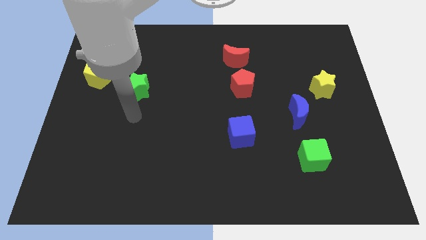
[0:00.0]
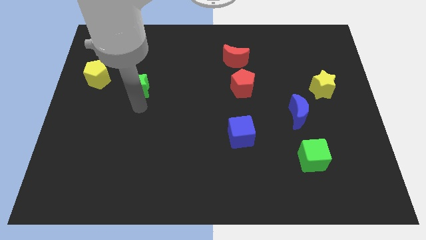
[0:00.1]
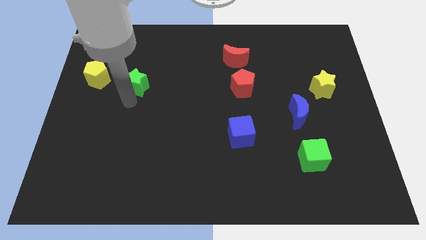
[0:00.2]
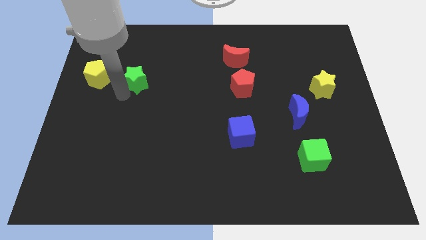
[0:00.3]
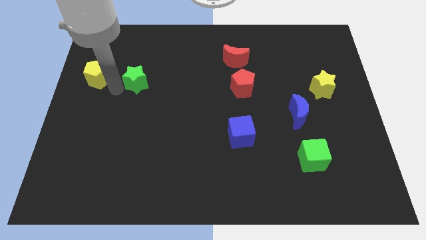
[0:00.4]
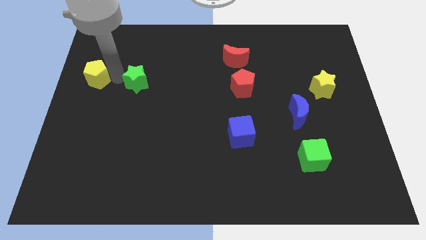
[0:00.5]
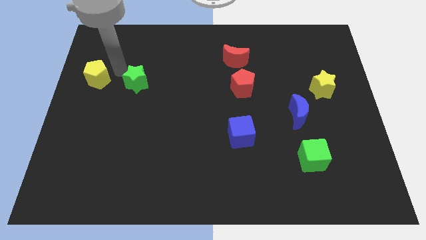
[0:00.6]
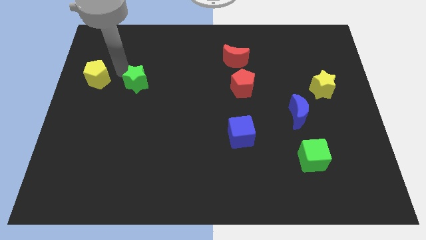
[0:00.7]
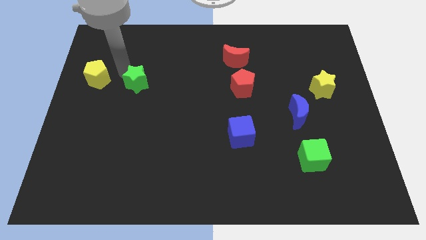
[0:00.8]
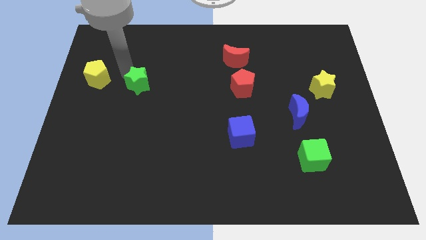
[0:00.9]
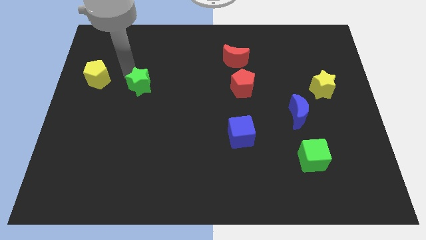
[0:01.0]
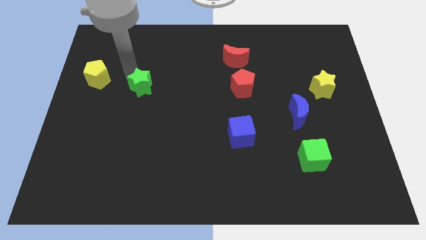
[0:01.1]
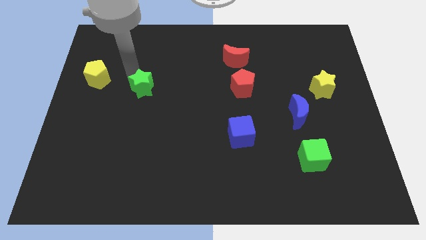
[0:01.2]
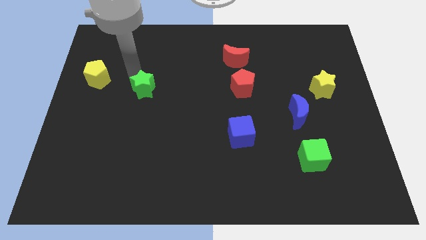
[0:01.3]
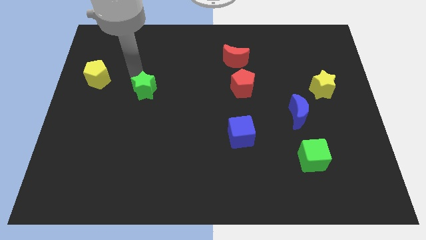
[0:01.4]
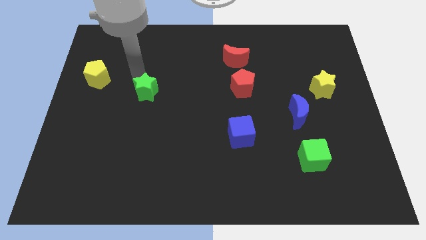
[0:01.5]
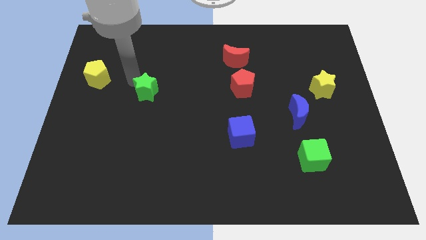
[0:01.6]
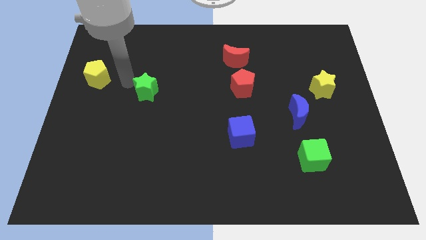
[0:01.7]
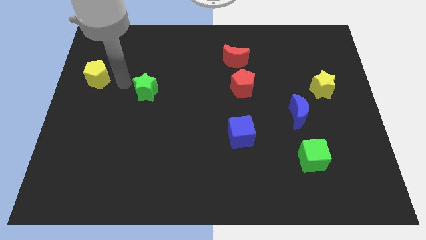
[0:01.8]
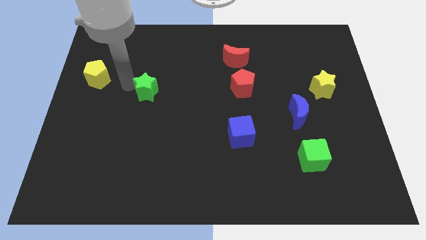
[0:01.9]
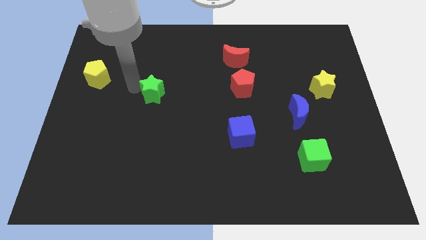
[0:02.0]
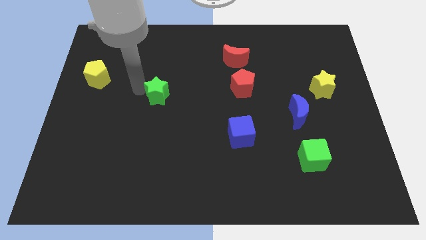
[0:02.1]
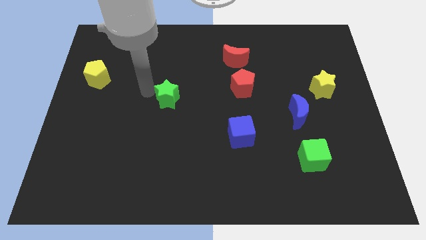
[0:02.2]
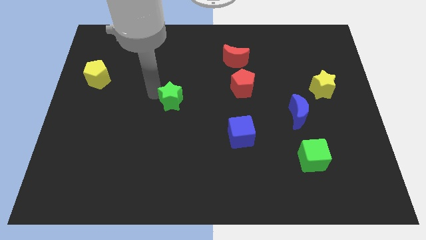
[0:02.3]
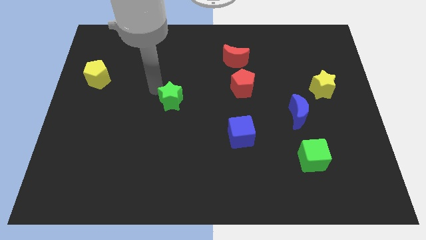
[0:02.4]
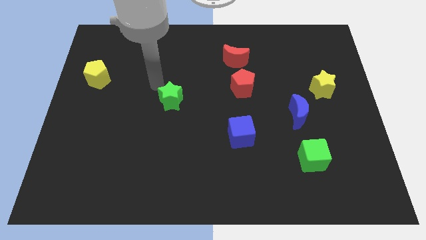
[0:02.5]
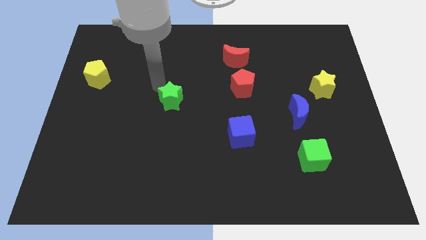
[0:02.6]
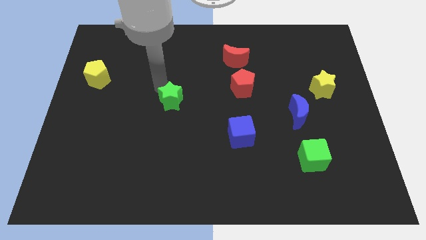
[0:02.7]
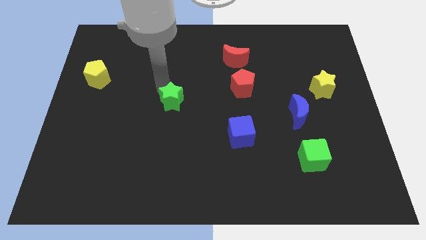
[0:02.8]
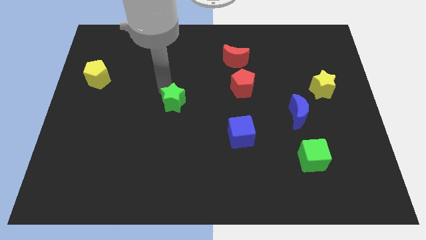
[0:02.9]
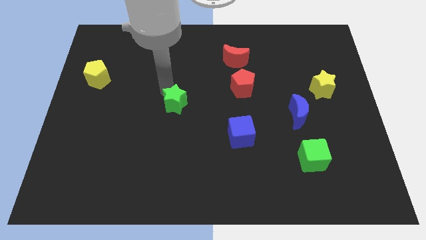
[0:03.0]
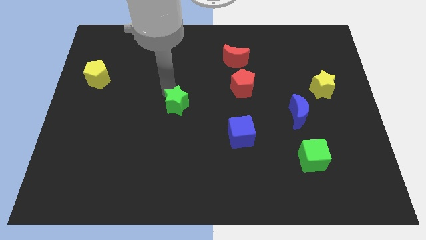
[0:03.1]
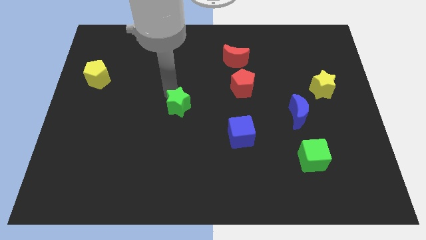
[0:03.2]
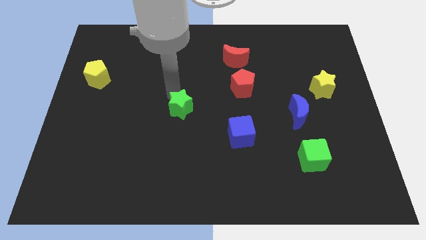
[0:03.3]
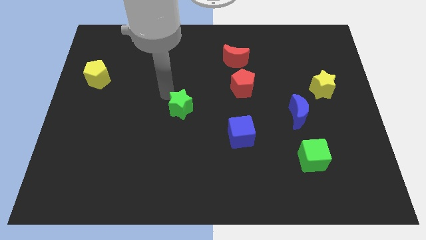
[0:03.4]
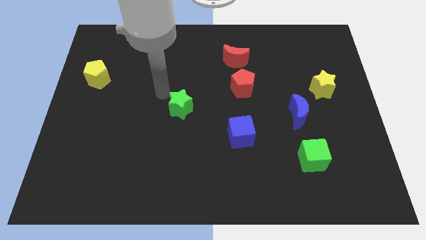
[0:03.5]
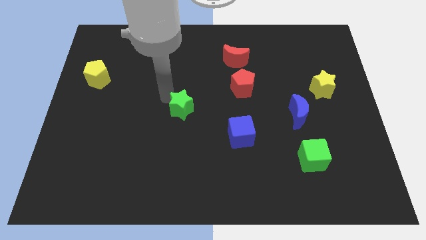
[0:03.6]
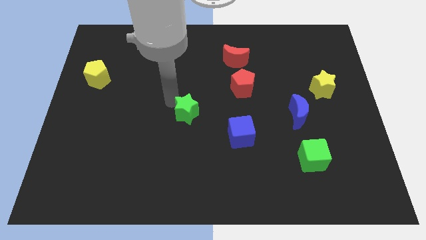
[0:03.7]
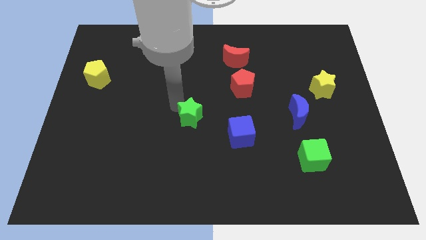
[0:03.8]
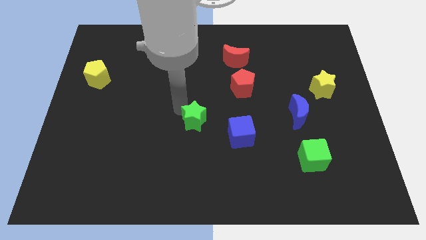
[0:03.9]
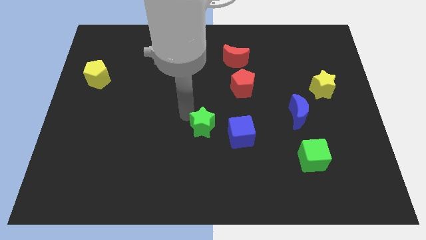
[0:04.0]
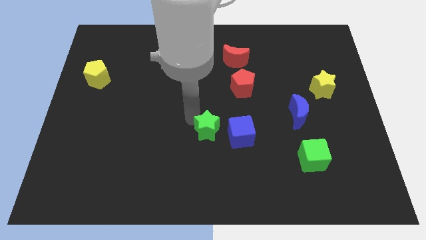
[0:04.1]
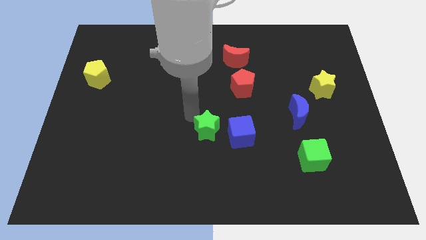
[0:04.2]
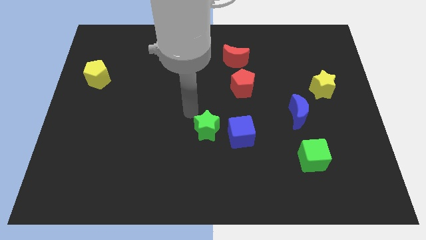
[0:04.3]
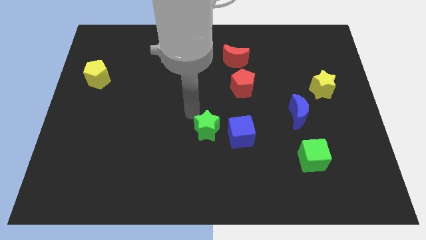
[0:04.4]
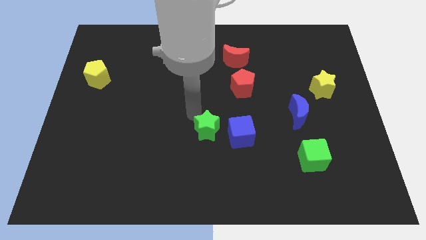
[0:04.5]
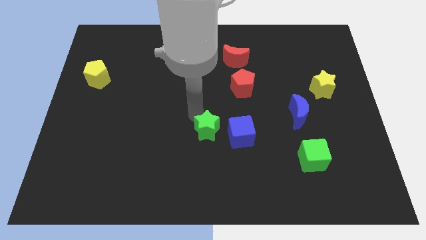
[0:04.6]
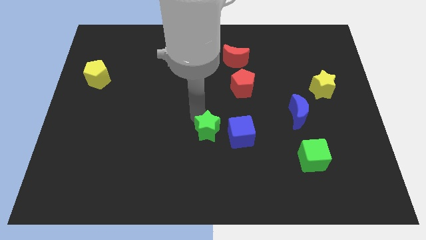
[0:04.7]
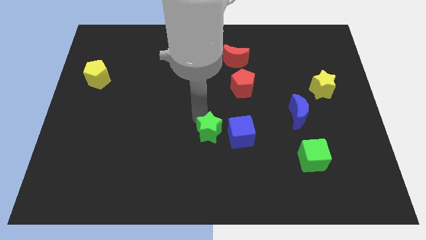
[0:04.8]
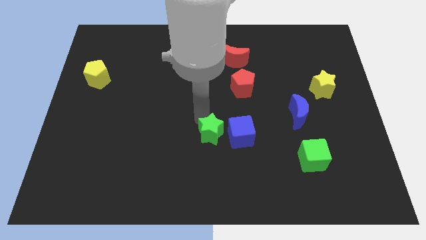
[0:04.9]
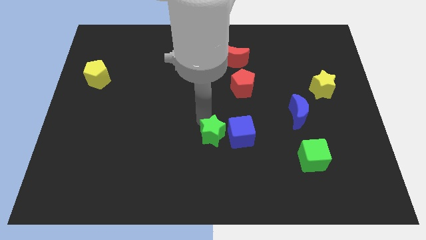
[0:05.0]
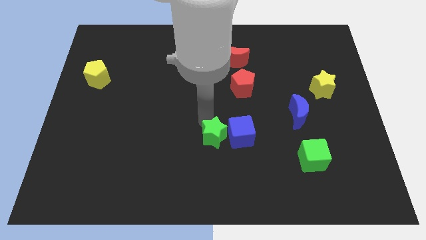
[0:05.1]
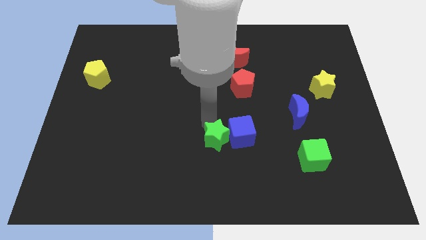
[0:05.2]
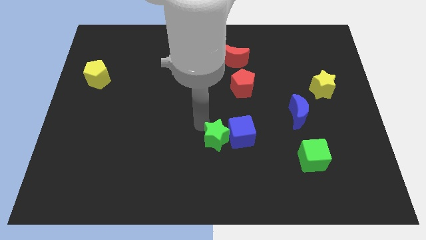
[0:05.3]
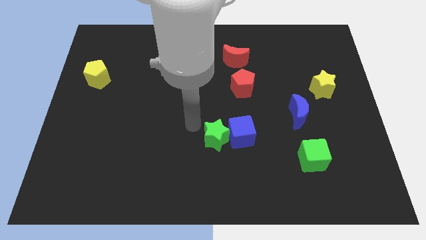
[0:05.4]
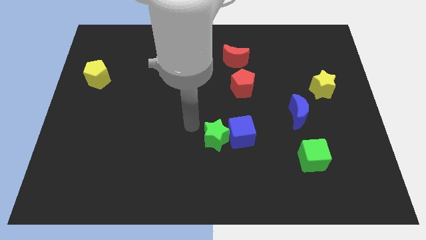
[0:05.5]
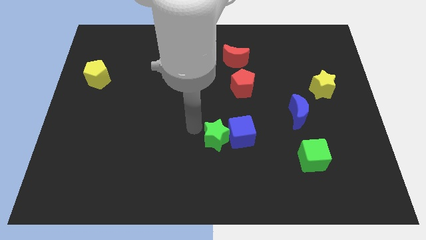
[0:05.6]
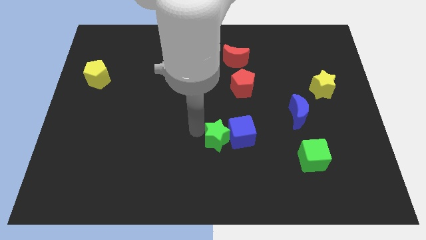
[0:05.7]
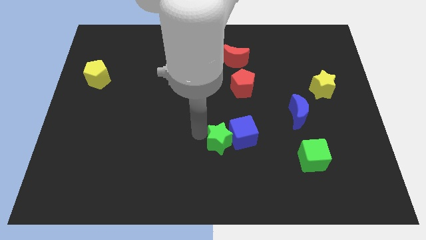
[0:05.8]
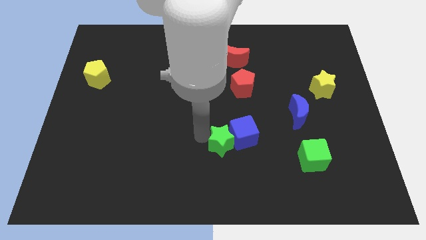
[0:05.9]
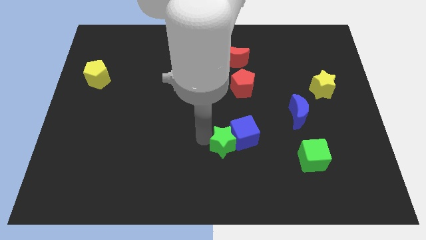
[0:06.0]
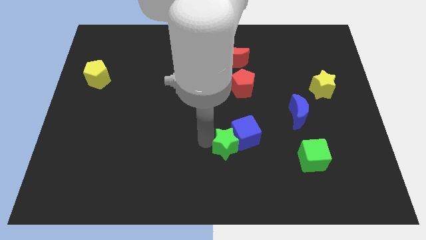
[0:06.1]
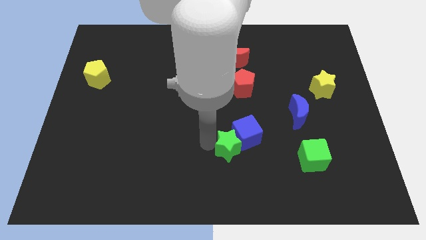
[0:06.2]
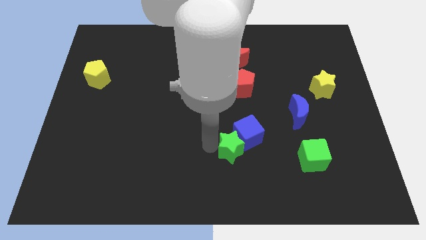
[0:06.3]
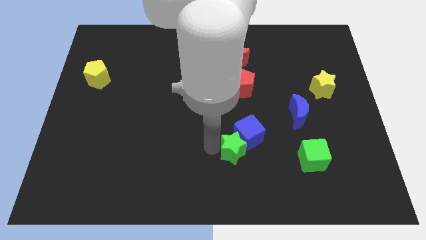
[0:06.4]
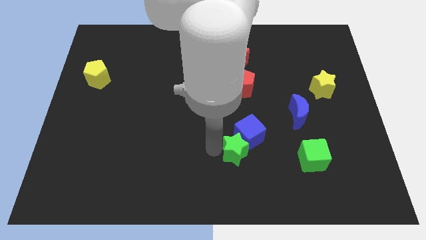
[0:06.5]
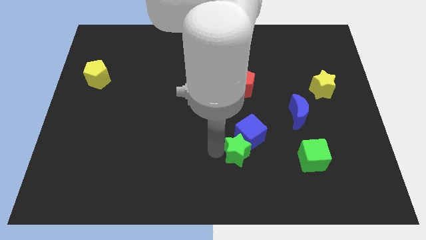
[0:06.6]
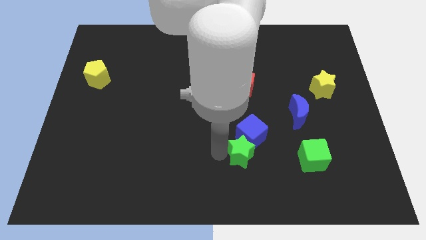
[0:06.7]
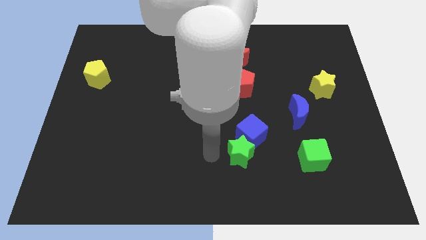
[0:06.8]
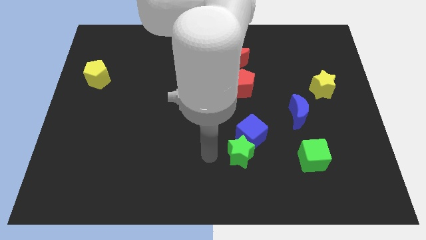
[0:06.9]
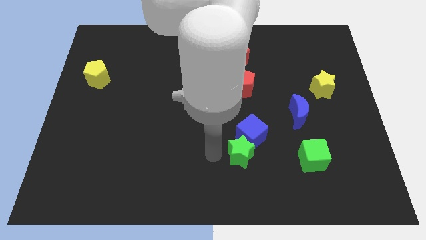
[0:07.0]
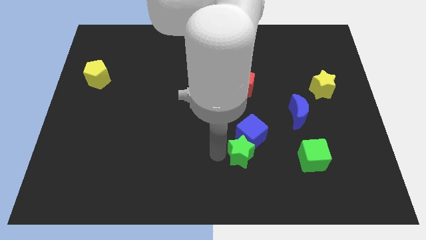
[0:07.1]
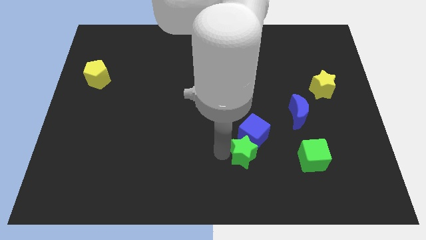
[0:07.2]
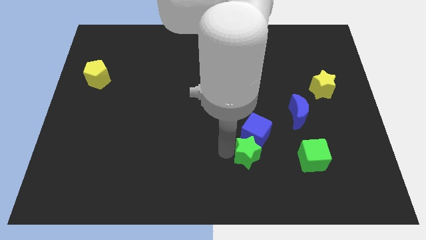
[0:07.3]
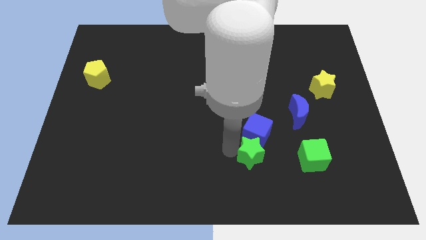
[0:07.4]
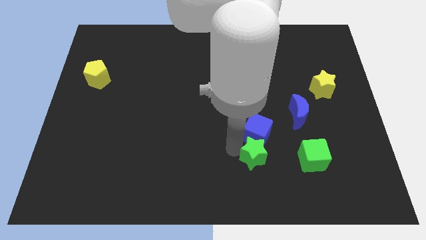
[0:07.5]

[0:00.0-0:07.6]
move the green star diagonally down and to the right of the blue cube
